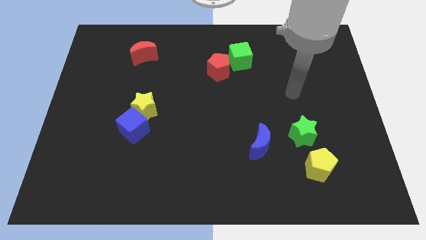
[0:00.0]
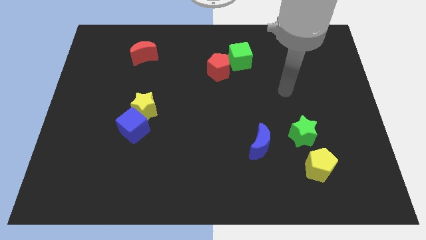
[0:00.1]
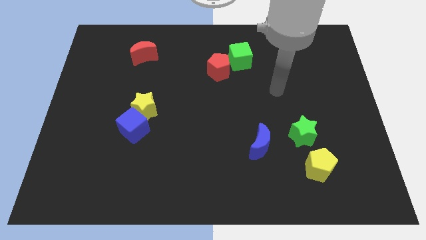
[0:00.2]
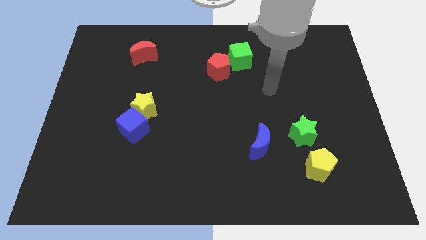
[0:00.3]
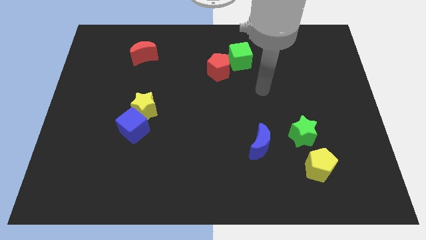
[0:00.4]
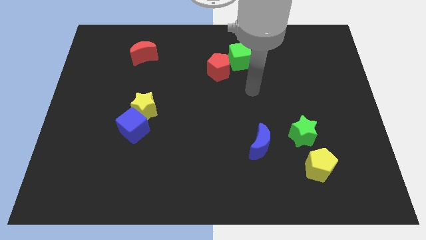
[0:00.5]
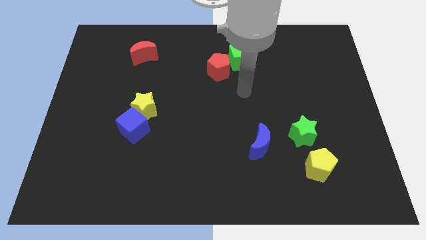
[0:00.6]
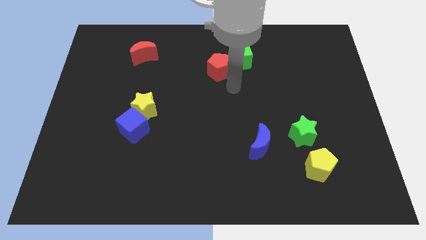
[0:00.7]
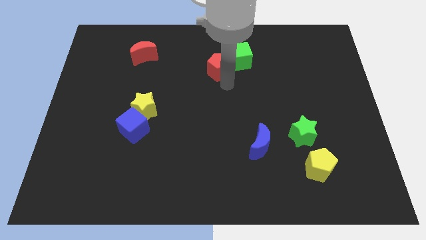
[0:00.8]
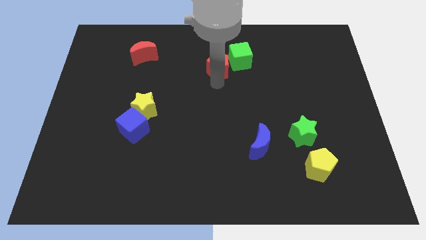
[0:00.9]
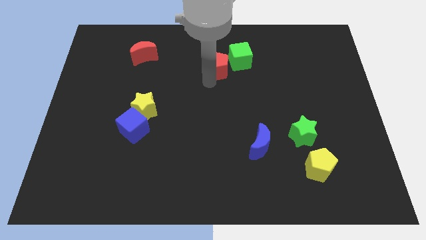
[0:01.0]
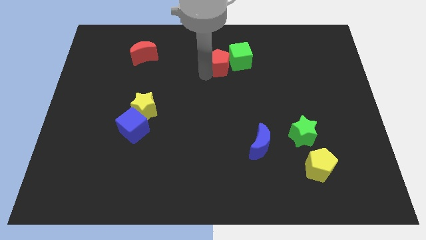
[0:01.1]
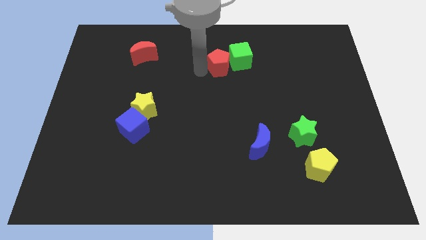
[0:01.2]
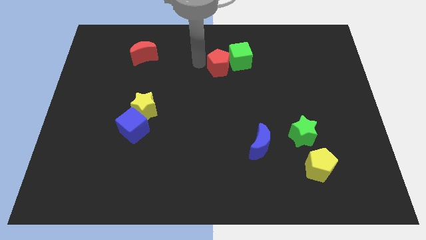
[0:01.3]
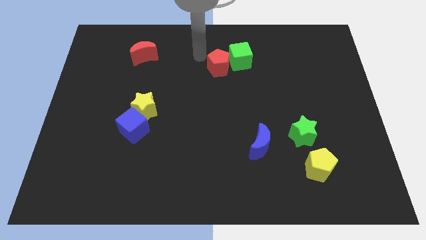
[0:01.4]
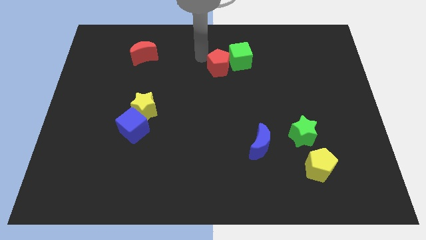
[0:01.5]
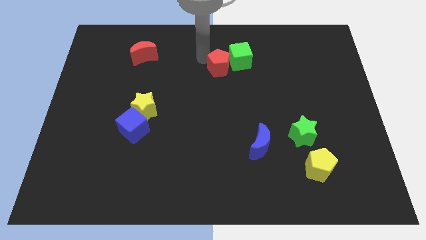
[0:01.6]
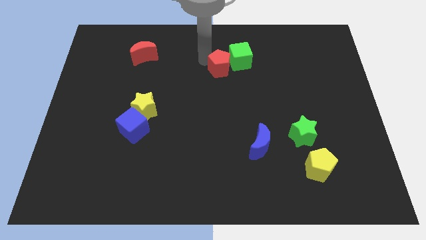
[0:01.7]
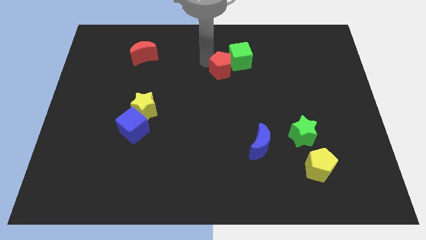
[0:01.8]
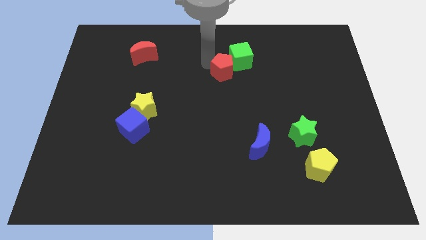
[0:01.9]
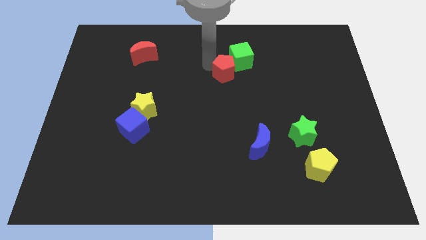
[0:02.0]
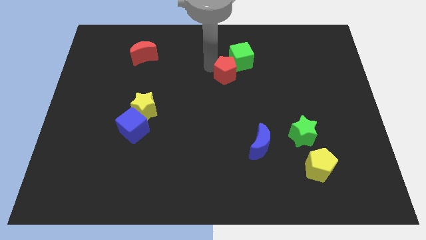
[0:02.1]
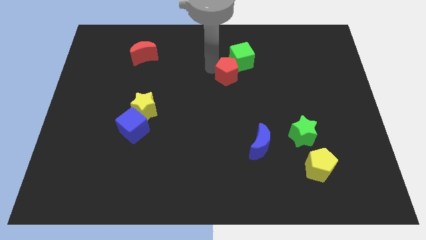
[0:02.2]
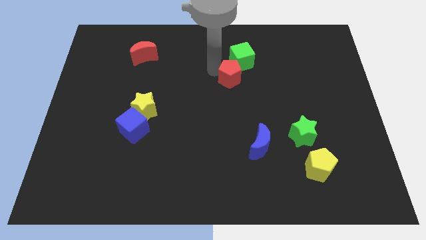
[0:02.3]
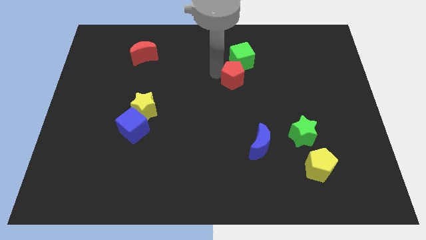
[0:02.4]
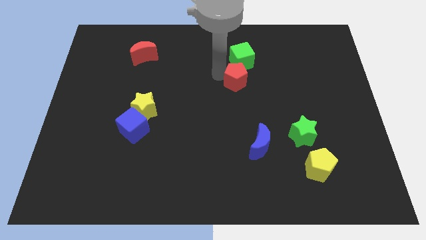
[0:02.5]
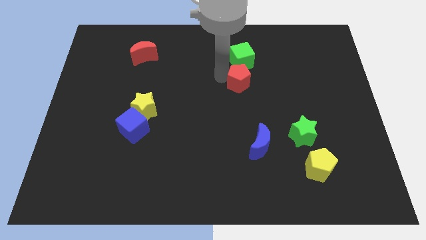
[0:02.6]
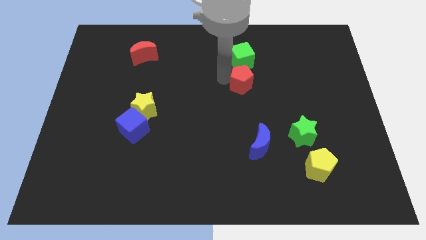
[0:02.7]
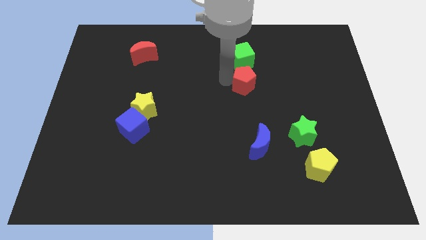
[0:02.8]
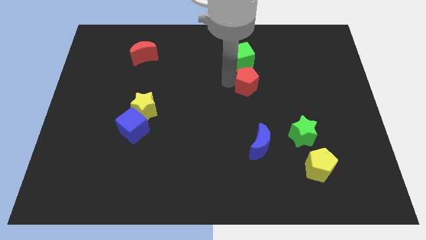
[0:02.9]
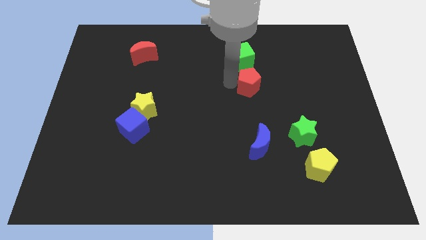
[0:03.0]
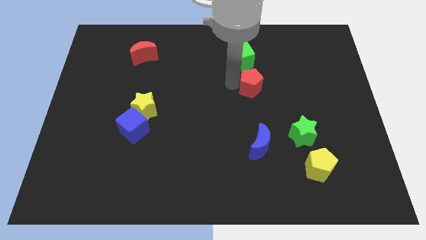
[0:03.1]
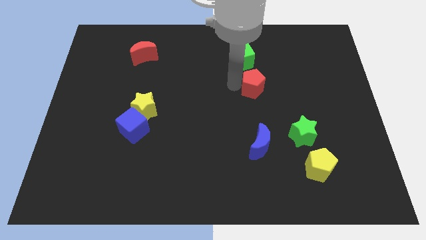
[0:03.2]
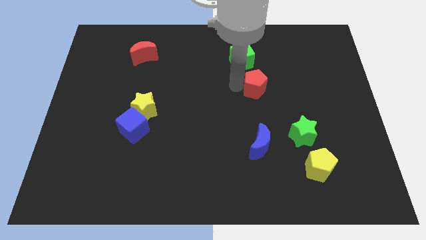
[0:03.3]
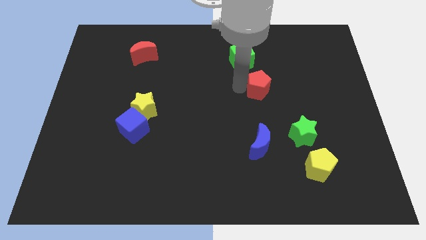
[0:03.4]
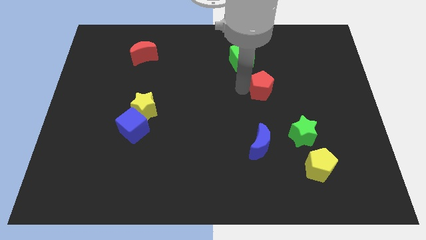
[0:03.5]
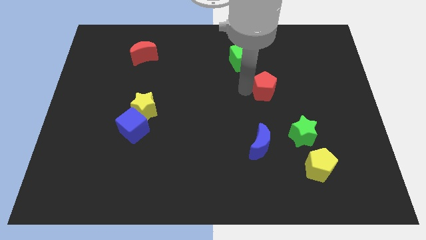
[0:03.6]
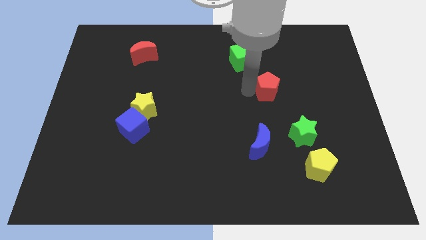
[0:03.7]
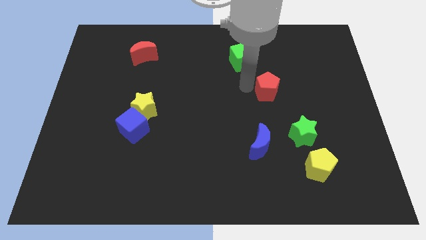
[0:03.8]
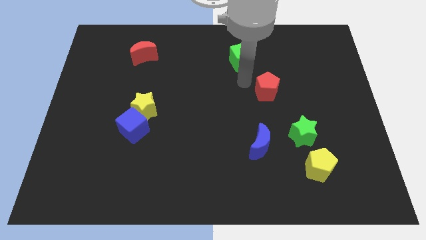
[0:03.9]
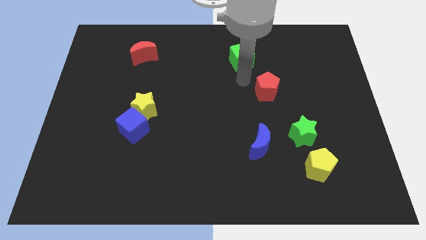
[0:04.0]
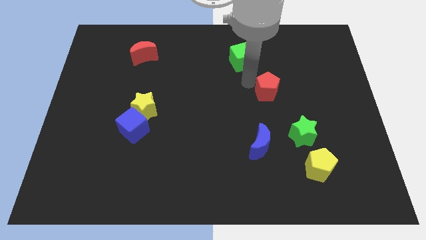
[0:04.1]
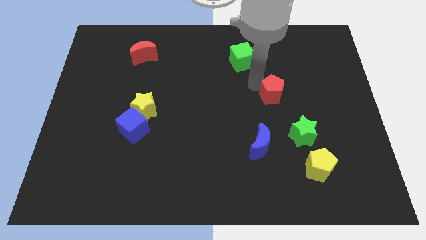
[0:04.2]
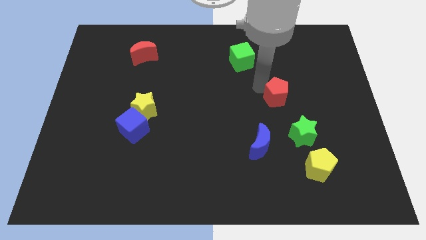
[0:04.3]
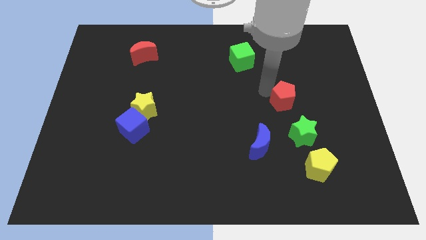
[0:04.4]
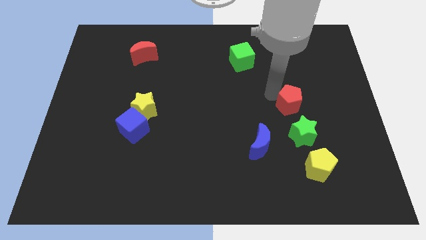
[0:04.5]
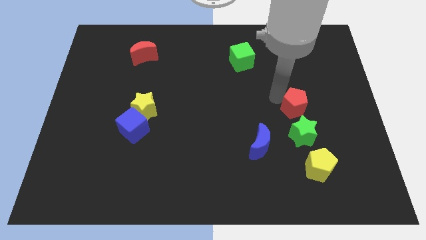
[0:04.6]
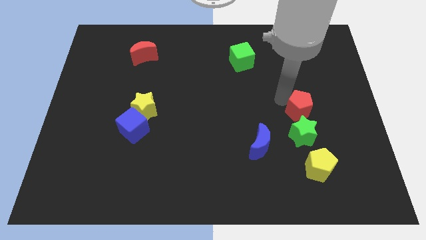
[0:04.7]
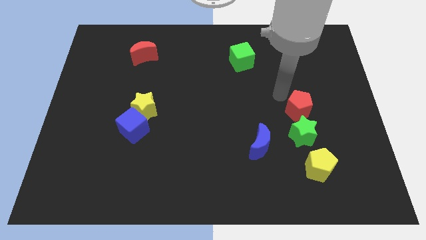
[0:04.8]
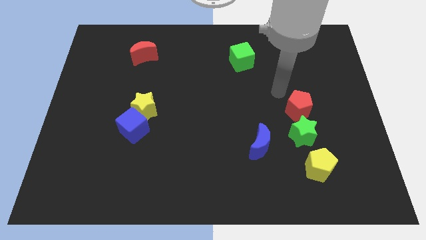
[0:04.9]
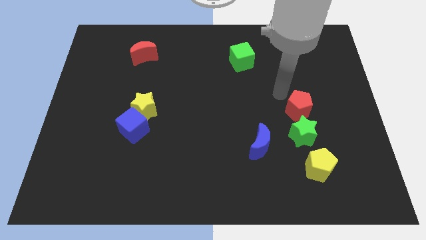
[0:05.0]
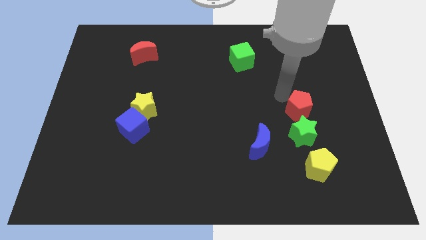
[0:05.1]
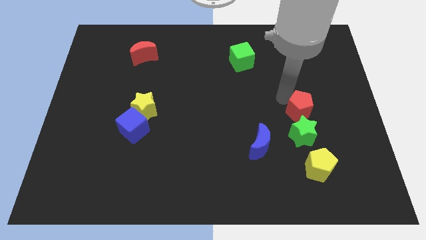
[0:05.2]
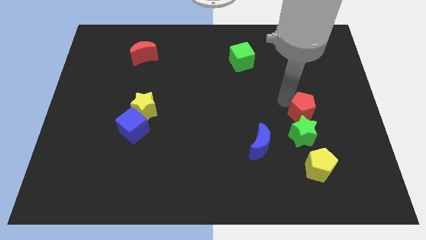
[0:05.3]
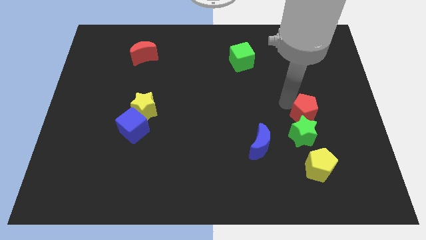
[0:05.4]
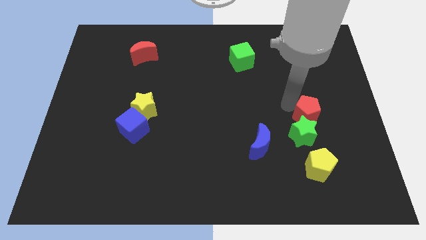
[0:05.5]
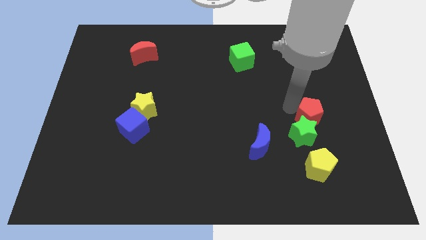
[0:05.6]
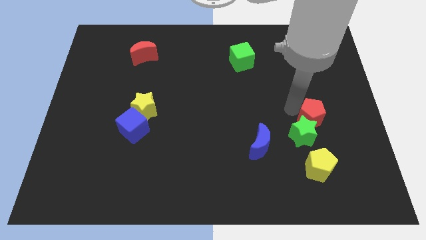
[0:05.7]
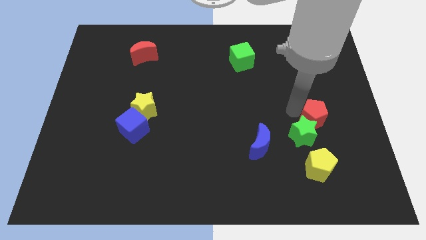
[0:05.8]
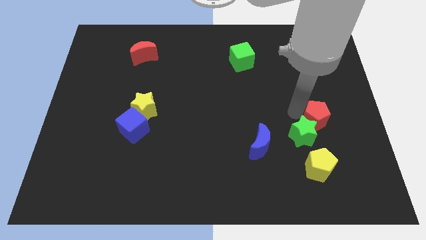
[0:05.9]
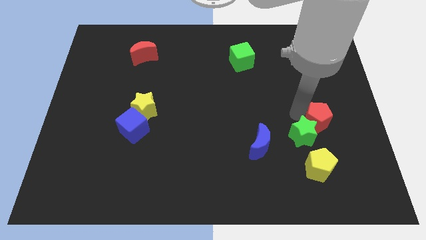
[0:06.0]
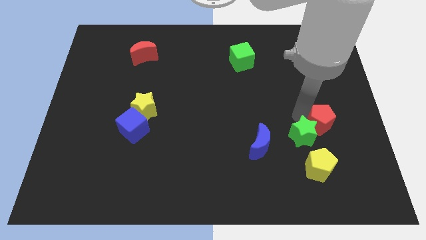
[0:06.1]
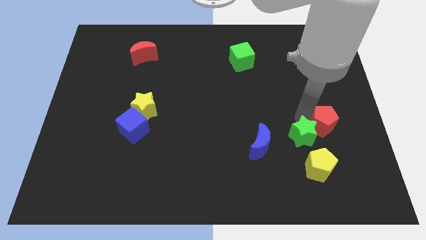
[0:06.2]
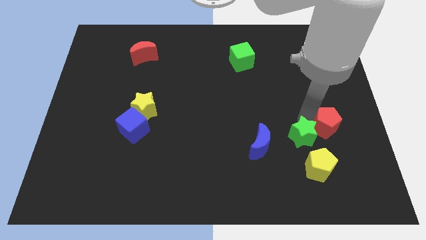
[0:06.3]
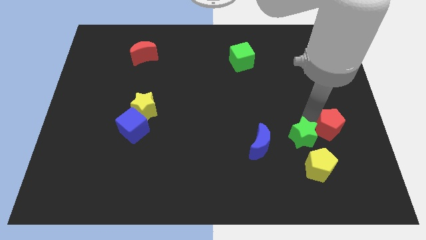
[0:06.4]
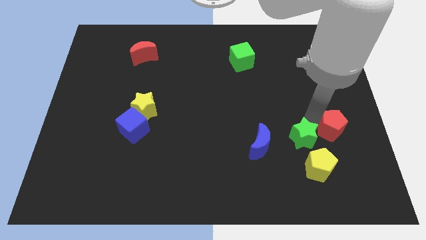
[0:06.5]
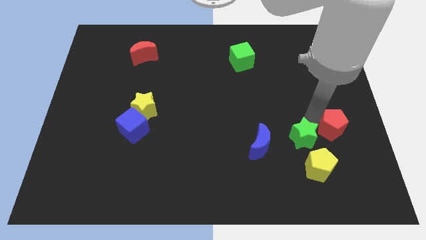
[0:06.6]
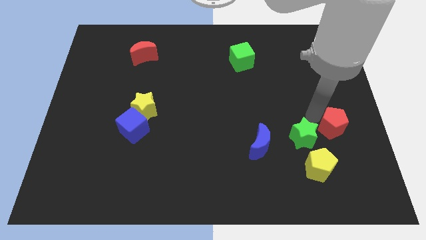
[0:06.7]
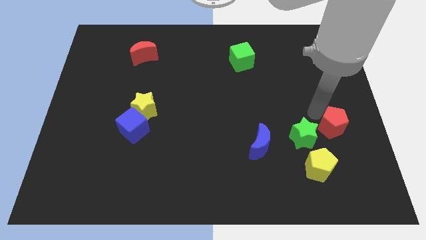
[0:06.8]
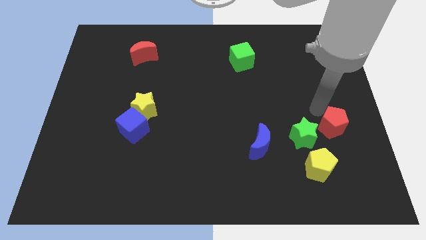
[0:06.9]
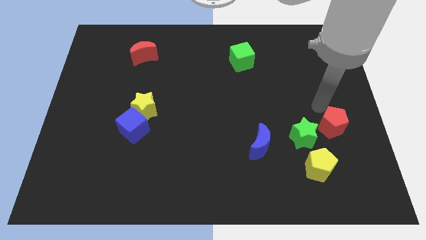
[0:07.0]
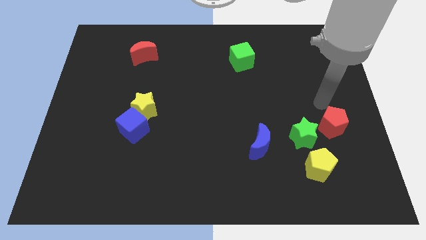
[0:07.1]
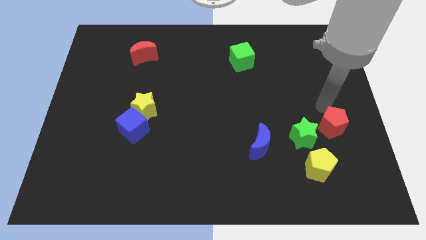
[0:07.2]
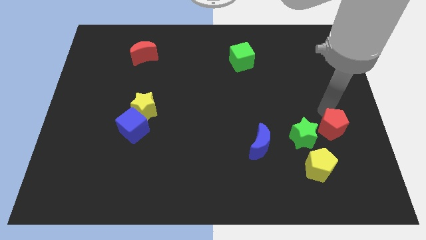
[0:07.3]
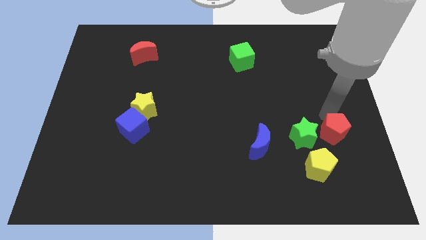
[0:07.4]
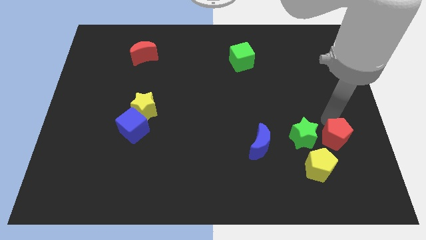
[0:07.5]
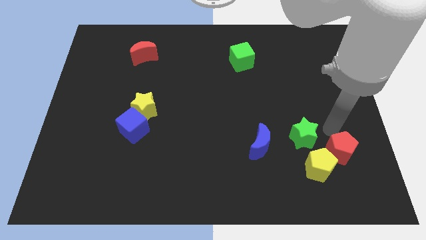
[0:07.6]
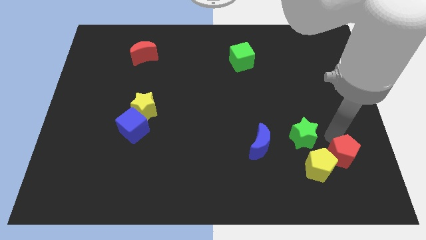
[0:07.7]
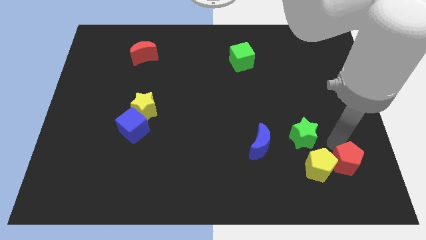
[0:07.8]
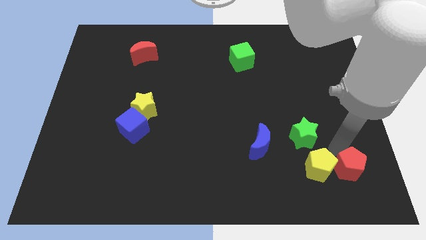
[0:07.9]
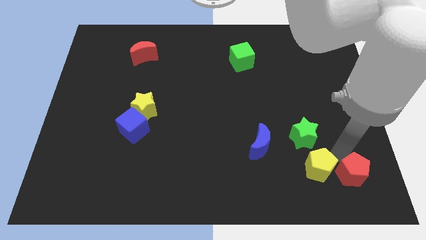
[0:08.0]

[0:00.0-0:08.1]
push the red pentagon to the bottom right
